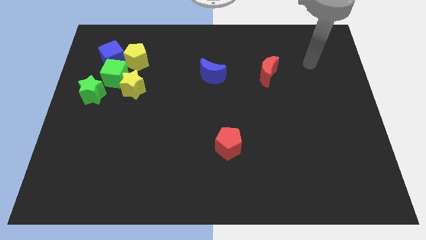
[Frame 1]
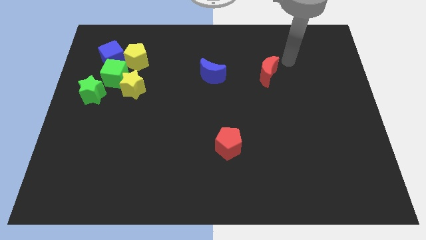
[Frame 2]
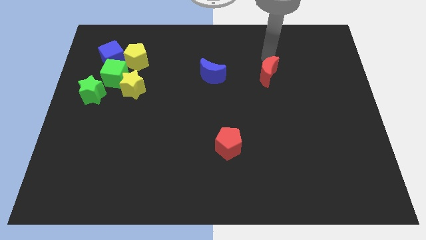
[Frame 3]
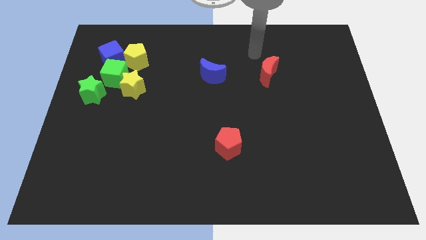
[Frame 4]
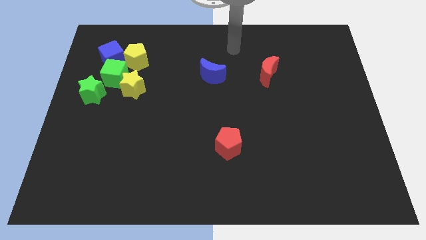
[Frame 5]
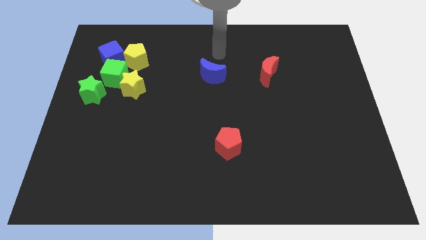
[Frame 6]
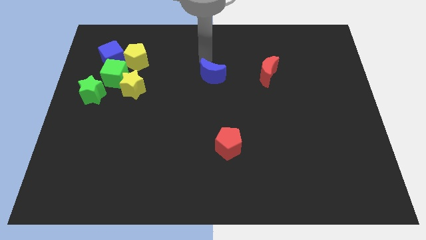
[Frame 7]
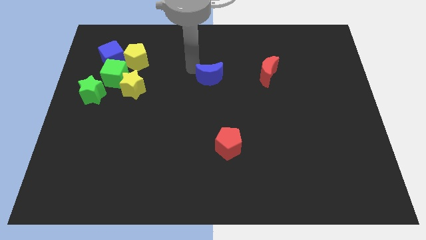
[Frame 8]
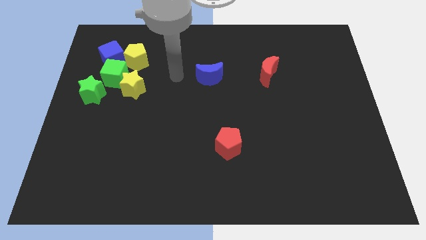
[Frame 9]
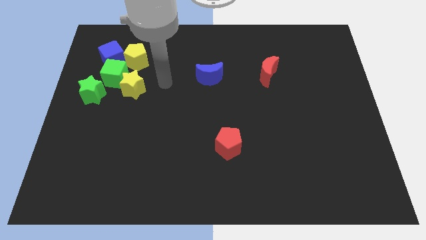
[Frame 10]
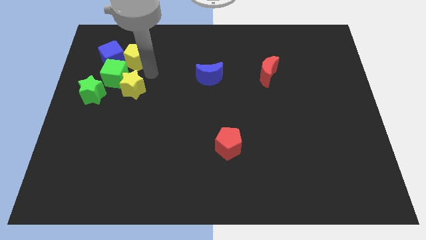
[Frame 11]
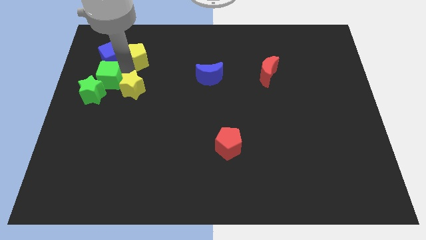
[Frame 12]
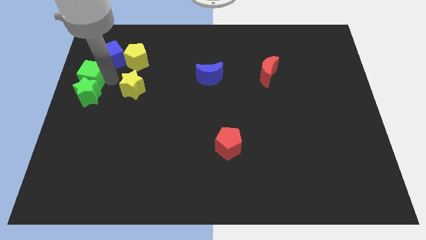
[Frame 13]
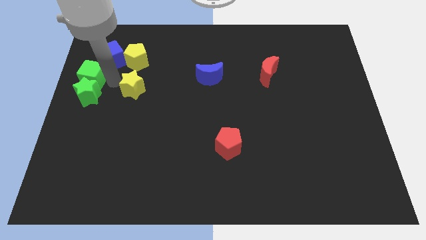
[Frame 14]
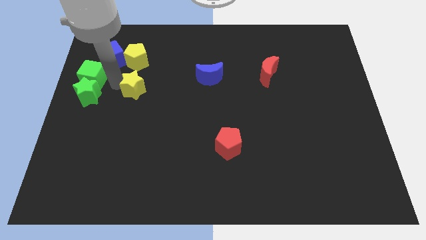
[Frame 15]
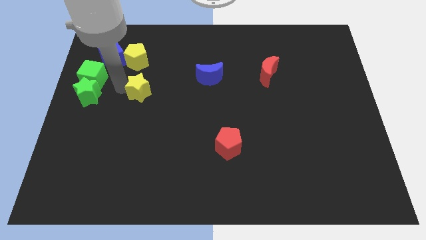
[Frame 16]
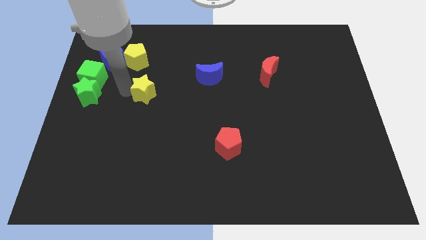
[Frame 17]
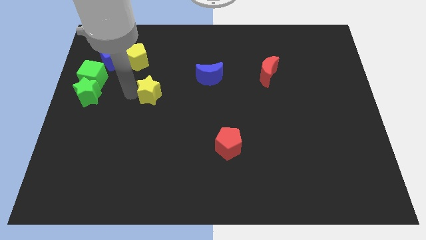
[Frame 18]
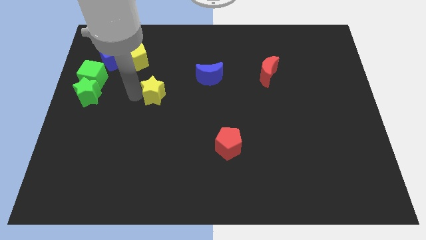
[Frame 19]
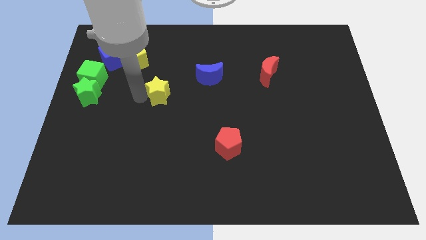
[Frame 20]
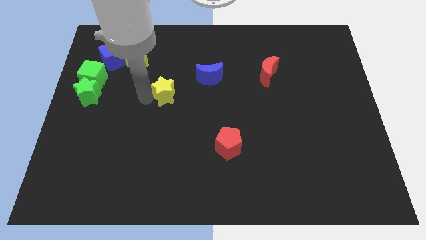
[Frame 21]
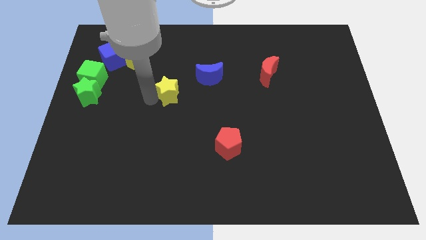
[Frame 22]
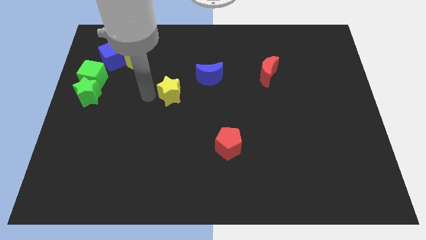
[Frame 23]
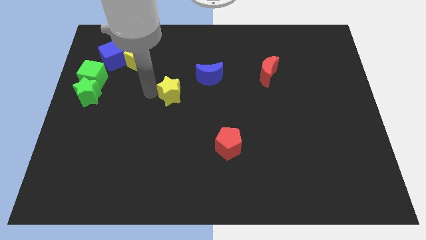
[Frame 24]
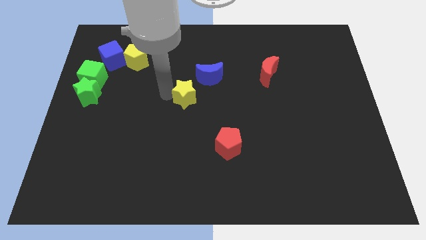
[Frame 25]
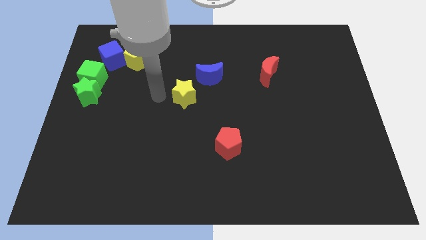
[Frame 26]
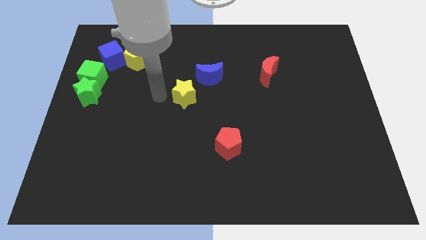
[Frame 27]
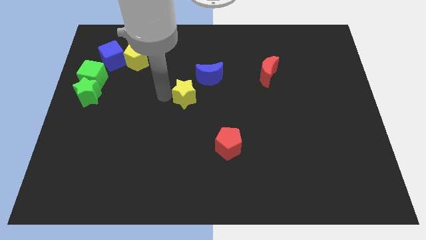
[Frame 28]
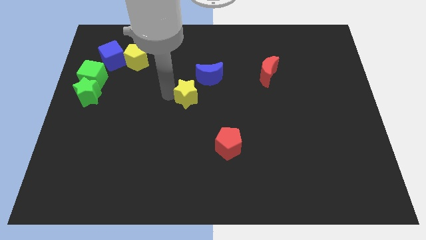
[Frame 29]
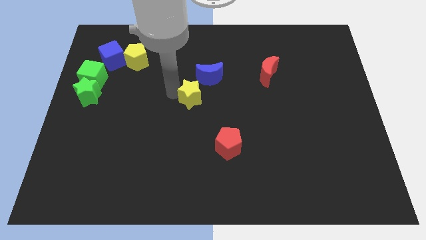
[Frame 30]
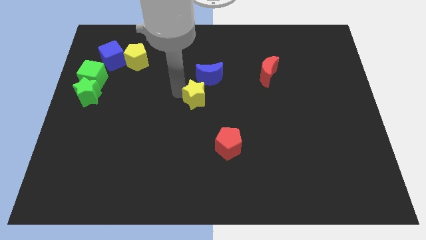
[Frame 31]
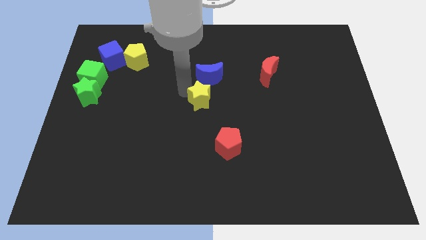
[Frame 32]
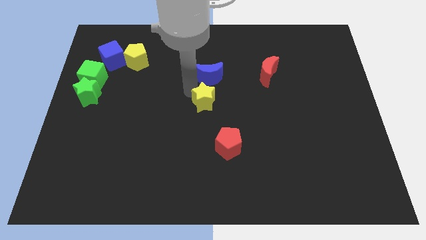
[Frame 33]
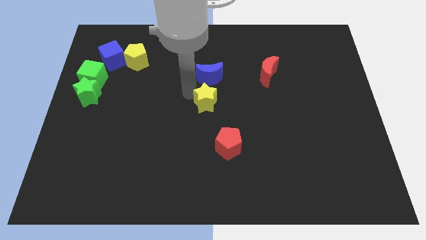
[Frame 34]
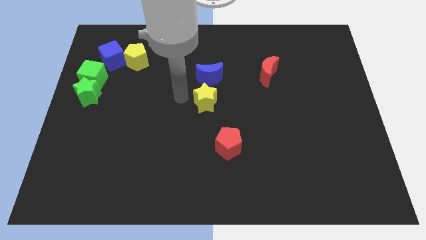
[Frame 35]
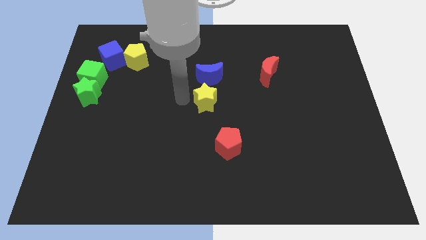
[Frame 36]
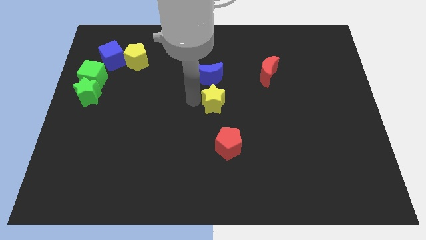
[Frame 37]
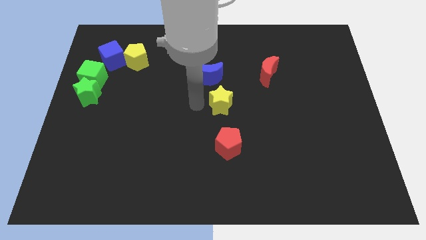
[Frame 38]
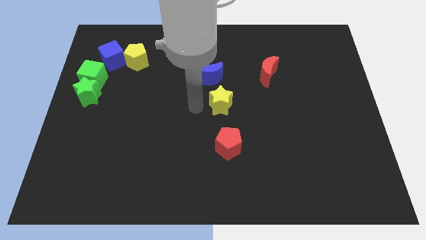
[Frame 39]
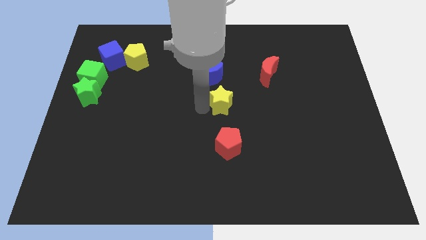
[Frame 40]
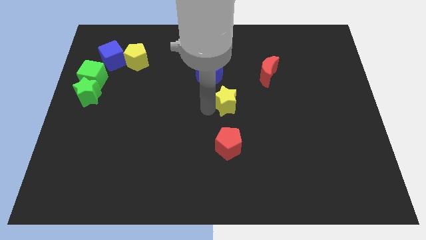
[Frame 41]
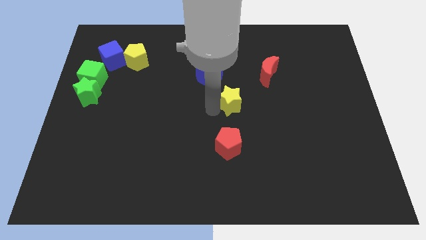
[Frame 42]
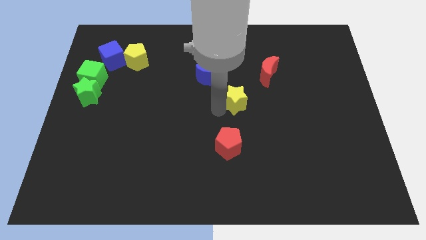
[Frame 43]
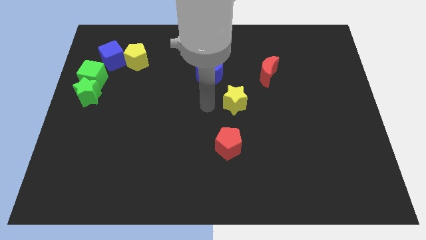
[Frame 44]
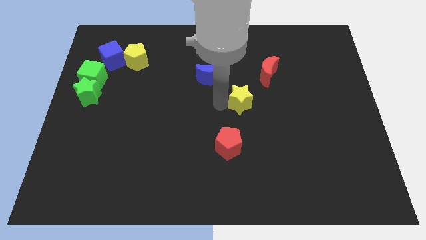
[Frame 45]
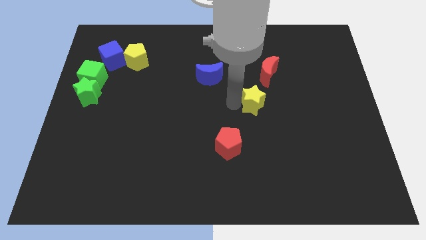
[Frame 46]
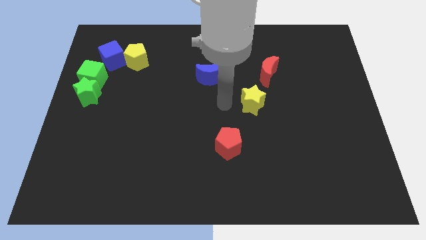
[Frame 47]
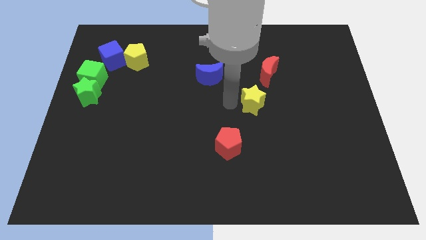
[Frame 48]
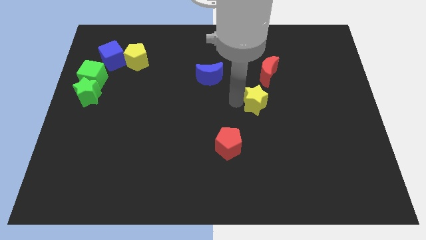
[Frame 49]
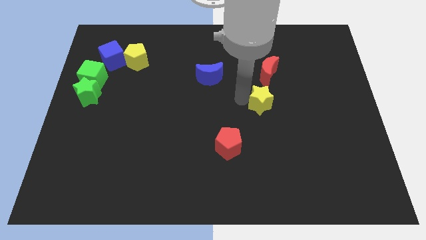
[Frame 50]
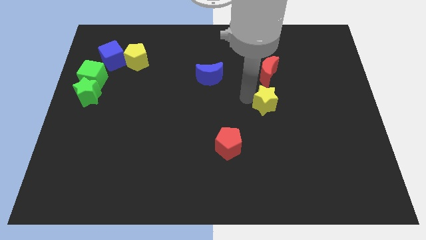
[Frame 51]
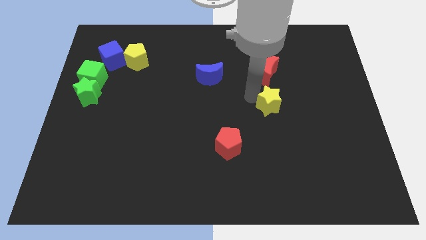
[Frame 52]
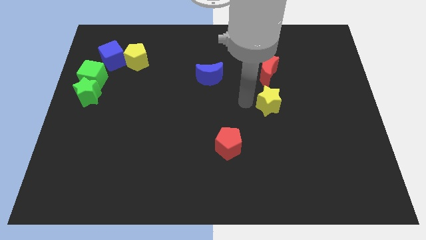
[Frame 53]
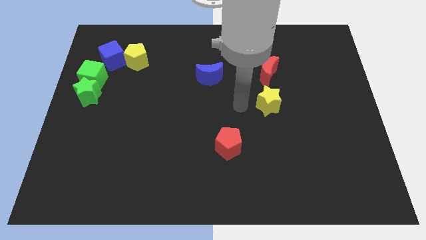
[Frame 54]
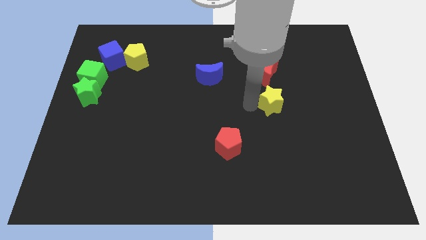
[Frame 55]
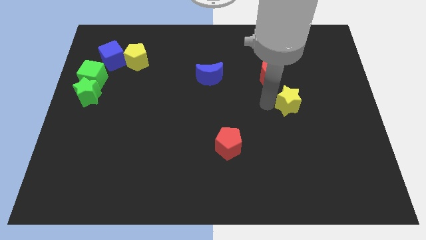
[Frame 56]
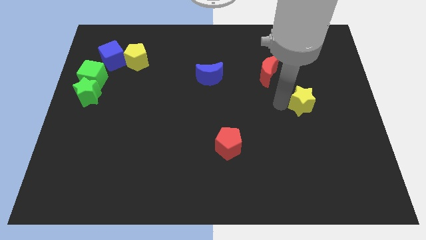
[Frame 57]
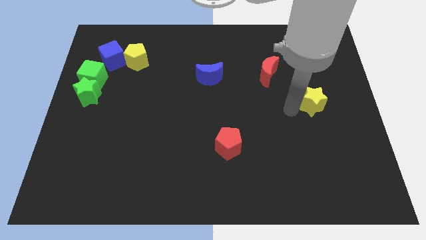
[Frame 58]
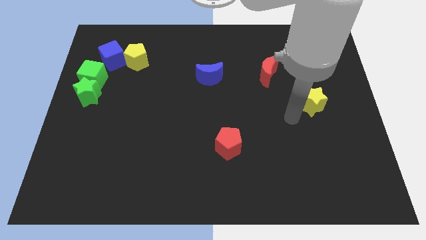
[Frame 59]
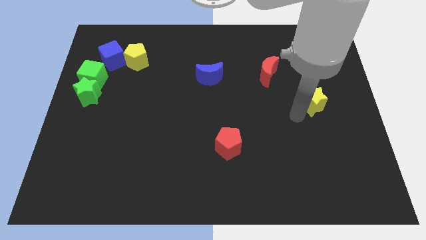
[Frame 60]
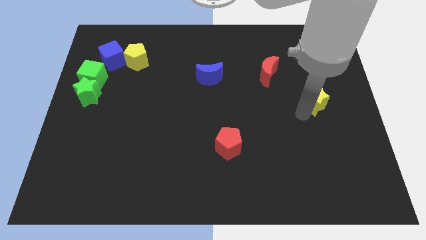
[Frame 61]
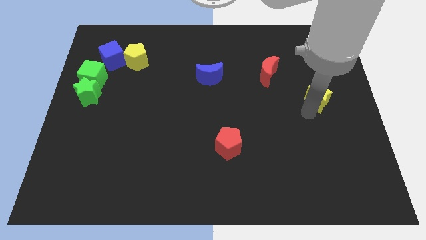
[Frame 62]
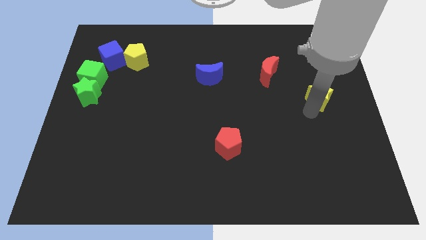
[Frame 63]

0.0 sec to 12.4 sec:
slide the yellow star to the right side of the board

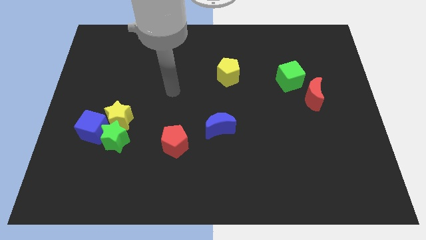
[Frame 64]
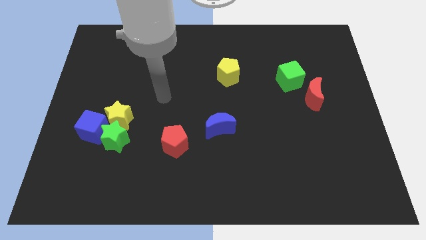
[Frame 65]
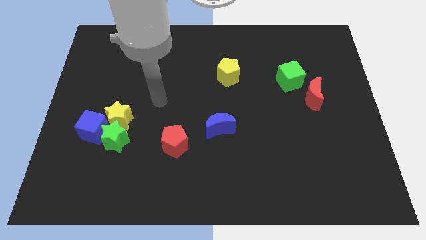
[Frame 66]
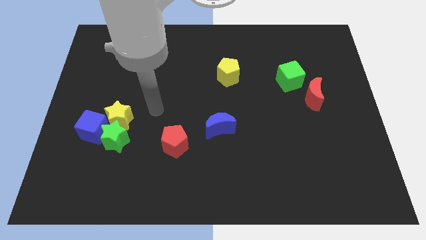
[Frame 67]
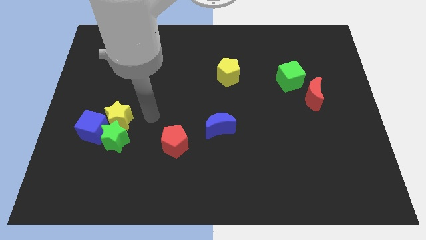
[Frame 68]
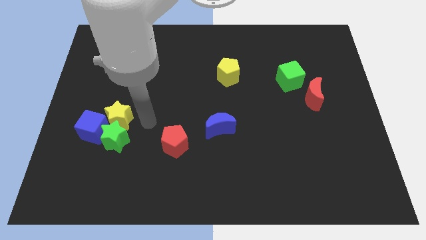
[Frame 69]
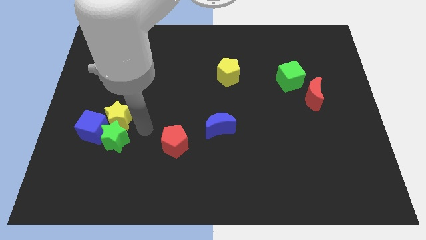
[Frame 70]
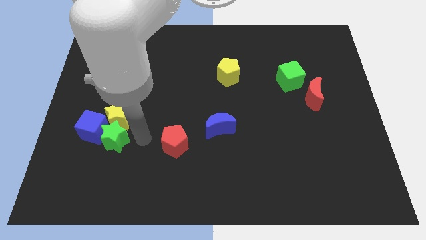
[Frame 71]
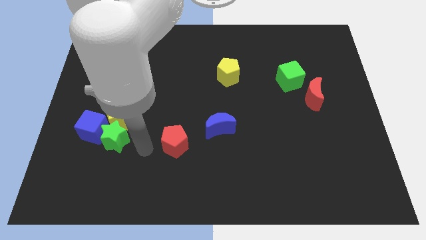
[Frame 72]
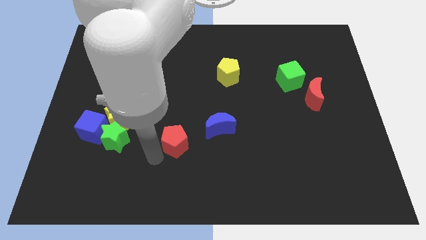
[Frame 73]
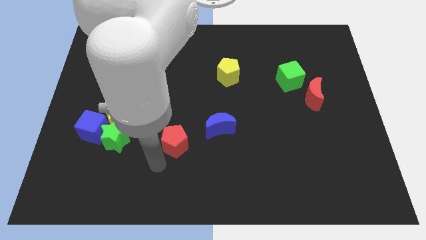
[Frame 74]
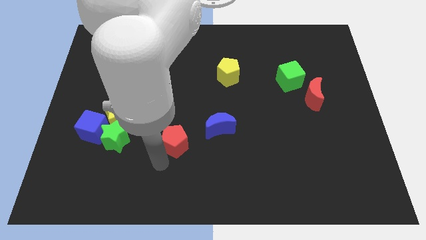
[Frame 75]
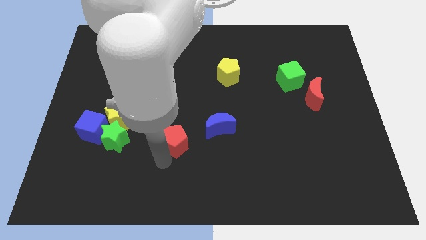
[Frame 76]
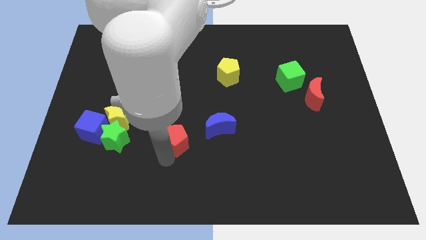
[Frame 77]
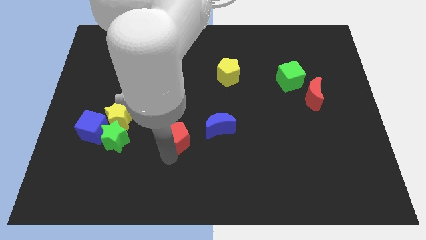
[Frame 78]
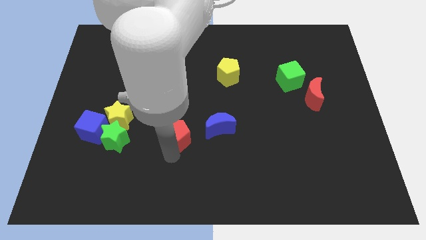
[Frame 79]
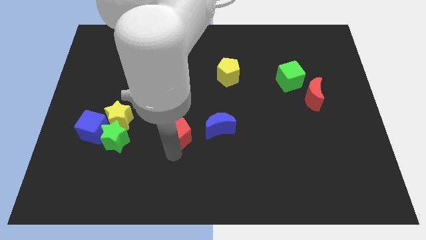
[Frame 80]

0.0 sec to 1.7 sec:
put the red pentagon to the middle of the board
